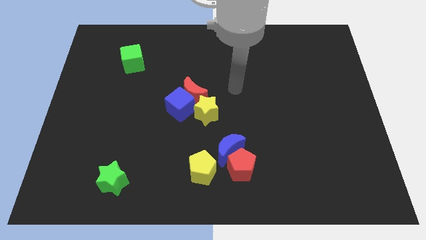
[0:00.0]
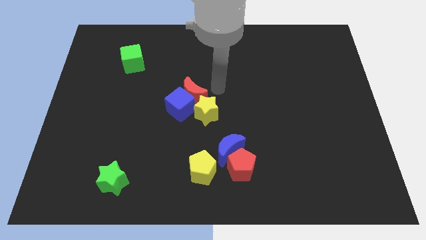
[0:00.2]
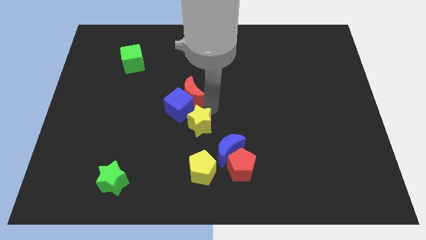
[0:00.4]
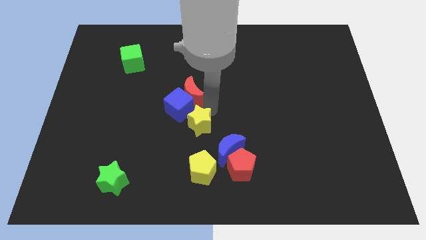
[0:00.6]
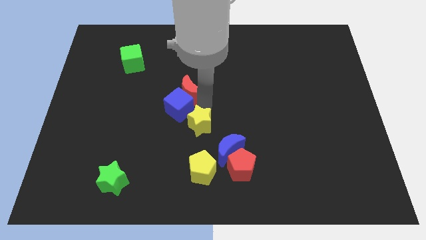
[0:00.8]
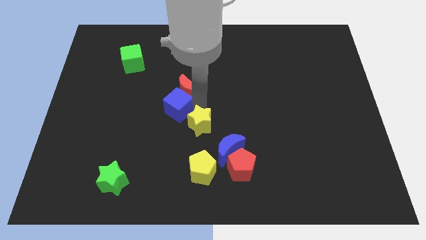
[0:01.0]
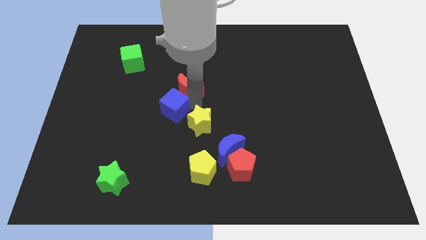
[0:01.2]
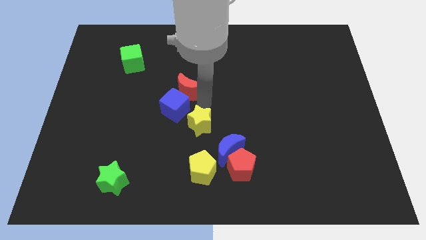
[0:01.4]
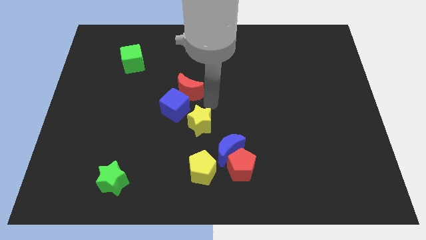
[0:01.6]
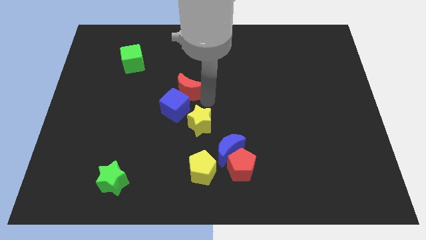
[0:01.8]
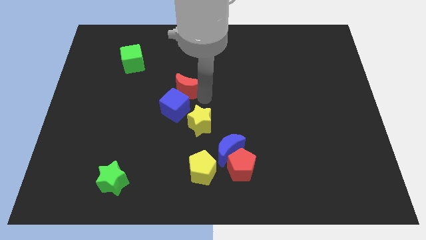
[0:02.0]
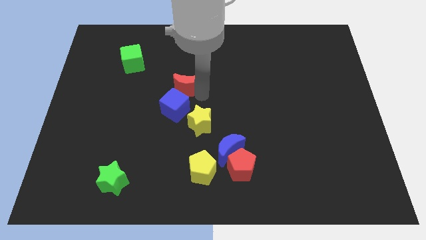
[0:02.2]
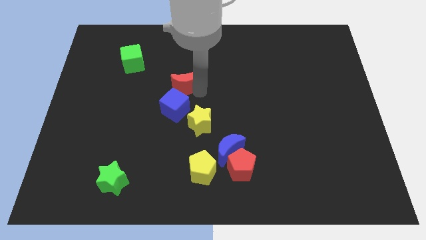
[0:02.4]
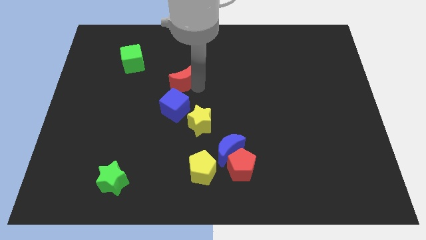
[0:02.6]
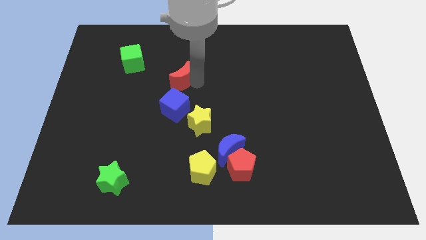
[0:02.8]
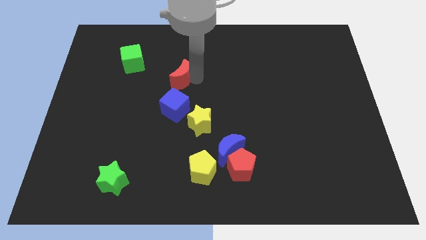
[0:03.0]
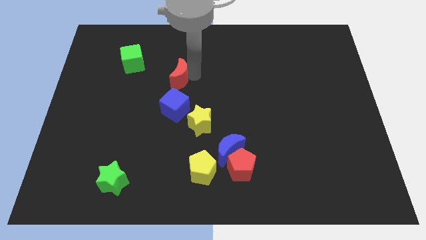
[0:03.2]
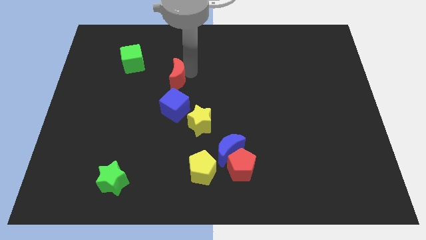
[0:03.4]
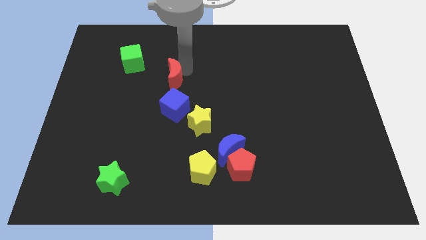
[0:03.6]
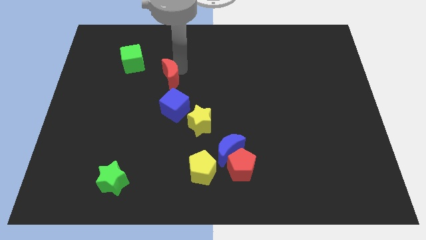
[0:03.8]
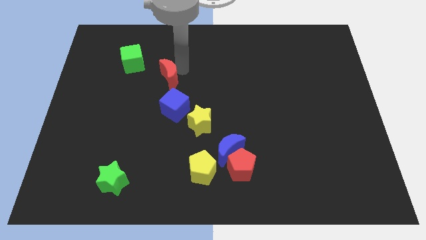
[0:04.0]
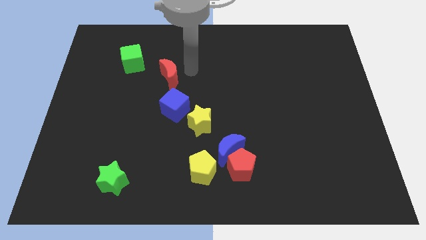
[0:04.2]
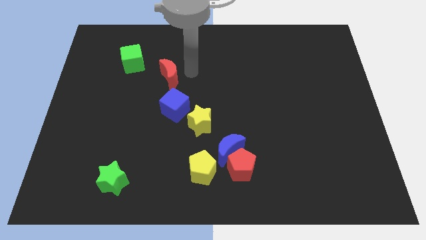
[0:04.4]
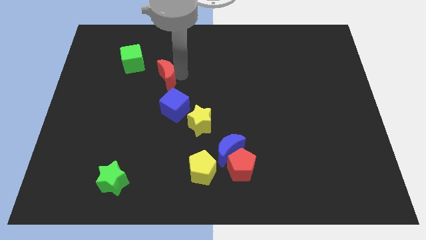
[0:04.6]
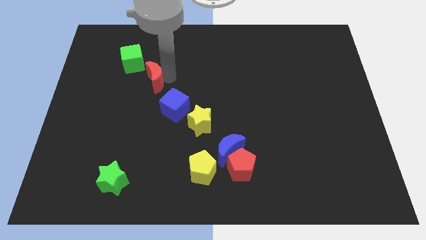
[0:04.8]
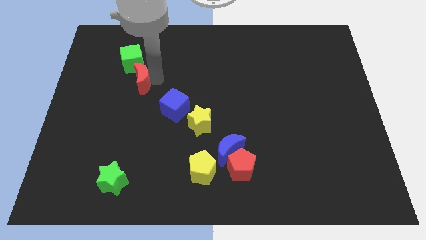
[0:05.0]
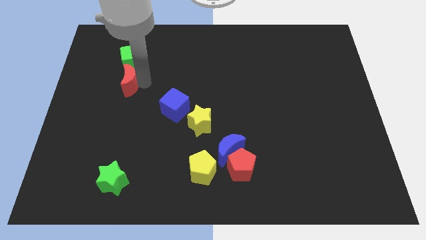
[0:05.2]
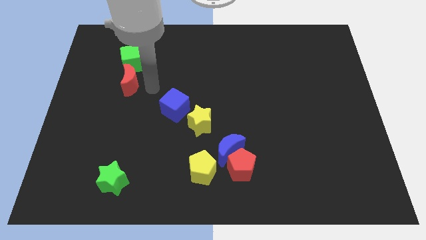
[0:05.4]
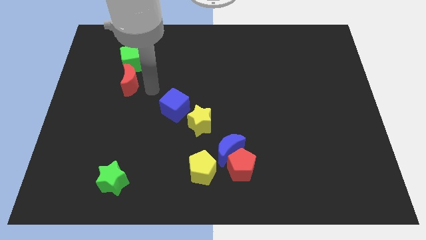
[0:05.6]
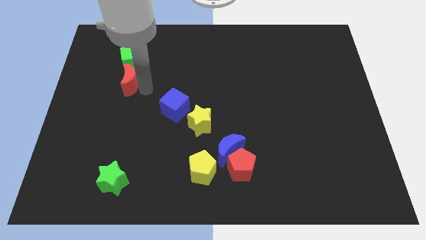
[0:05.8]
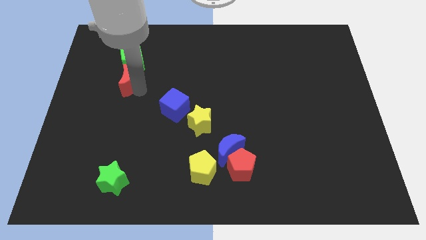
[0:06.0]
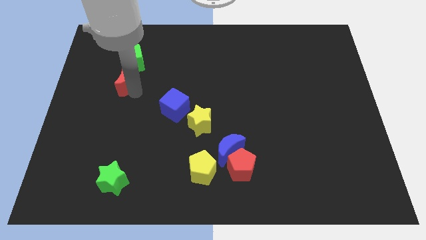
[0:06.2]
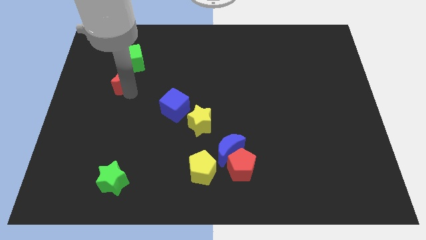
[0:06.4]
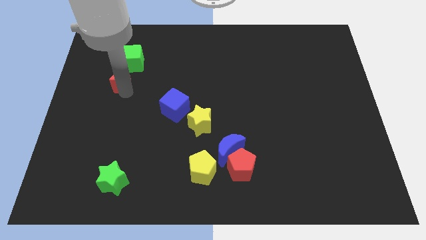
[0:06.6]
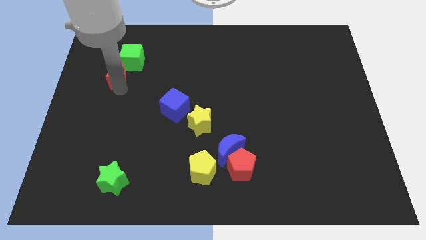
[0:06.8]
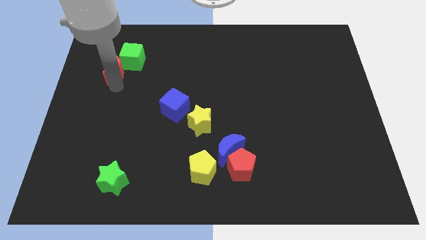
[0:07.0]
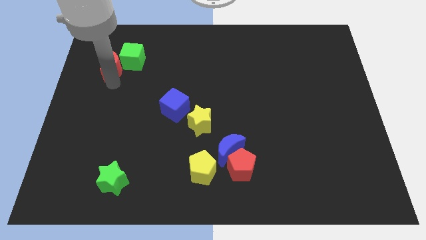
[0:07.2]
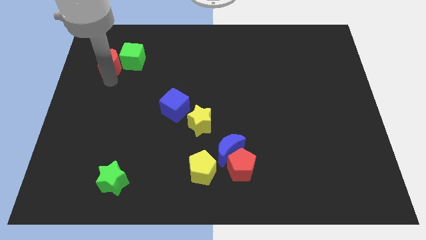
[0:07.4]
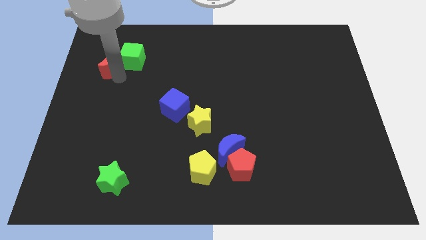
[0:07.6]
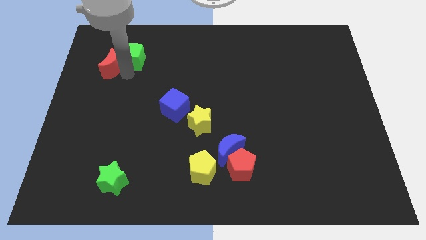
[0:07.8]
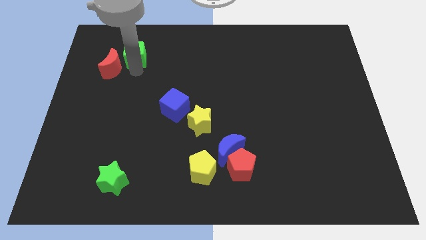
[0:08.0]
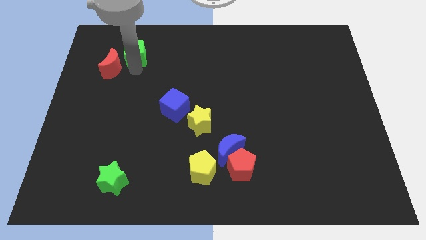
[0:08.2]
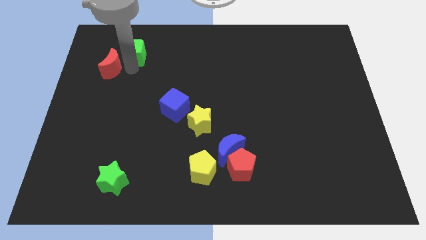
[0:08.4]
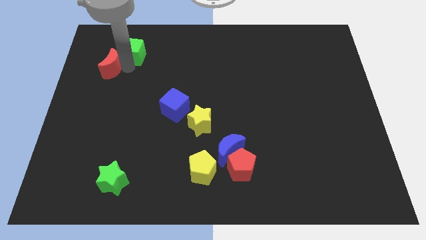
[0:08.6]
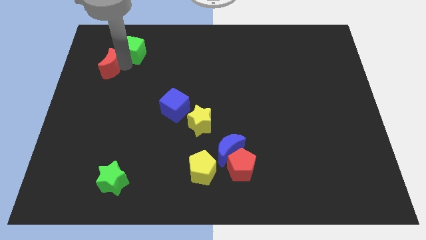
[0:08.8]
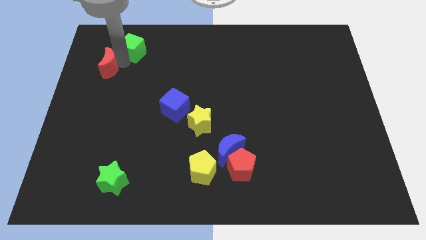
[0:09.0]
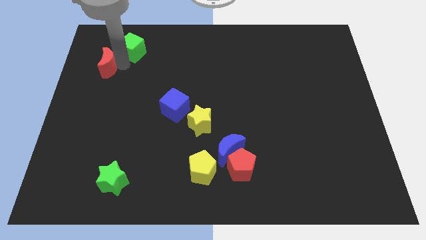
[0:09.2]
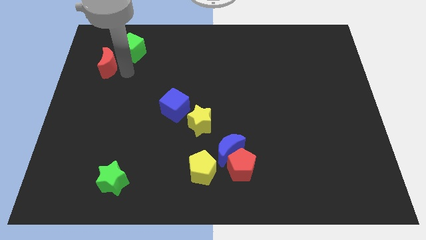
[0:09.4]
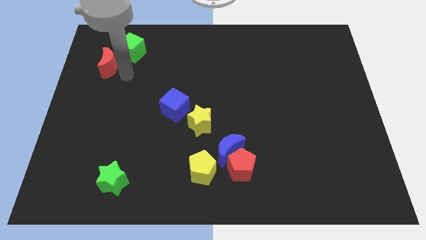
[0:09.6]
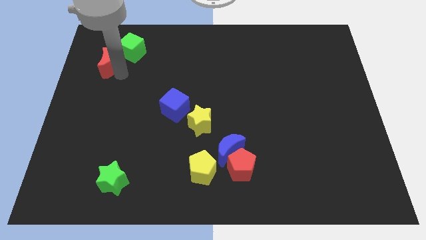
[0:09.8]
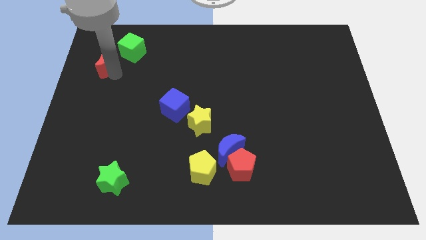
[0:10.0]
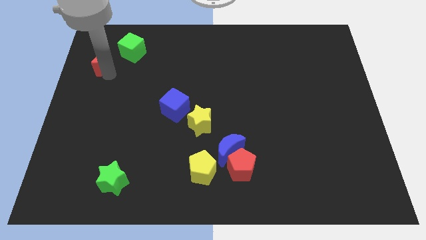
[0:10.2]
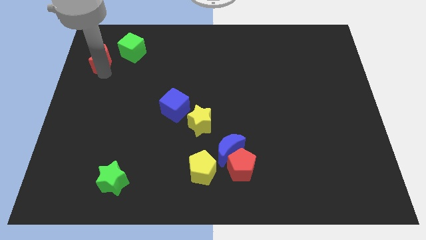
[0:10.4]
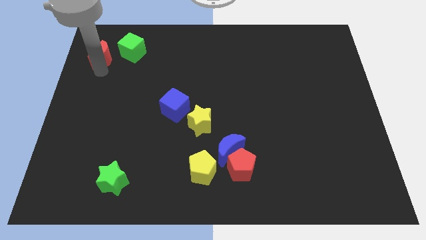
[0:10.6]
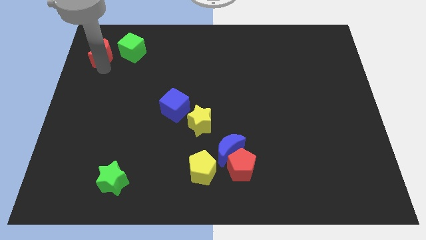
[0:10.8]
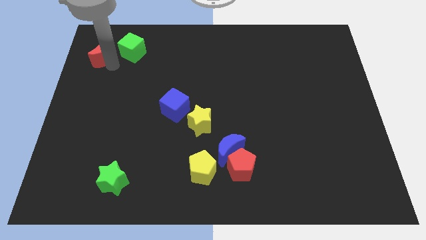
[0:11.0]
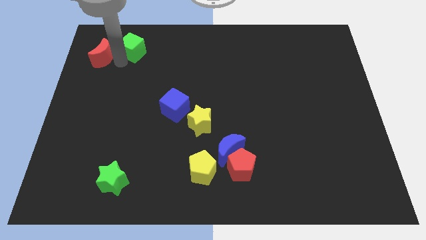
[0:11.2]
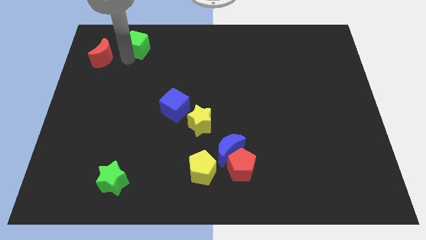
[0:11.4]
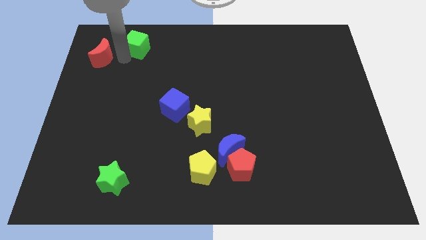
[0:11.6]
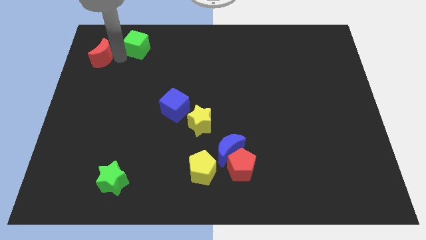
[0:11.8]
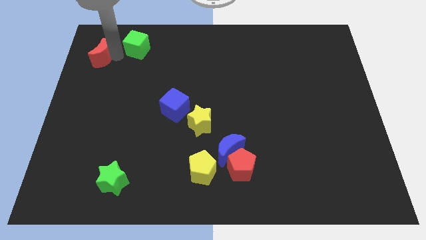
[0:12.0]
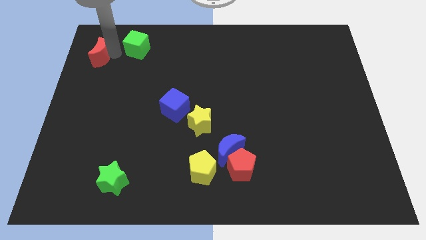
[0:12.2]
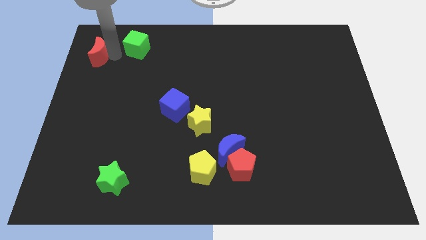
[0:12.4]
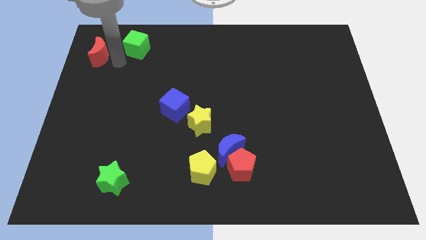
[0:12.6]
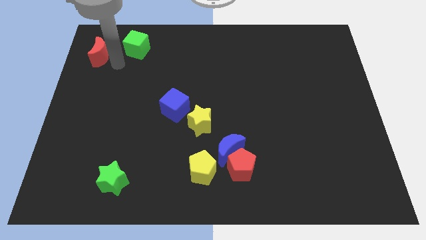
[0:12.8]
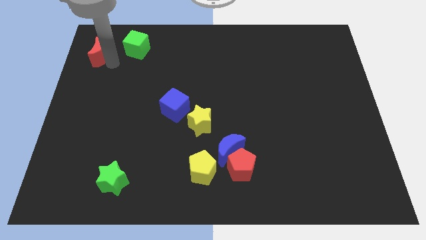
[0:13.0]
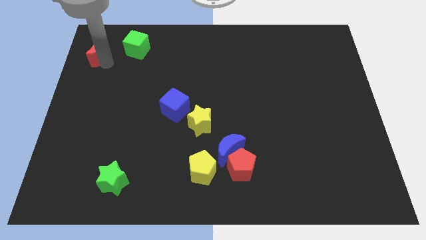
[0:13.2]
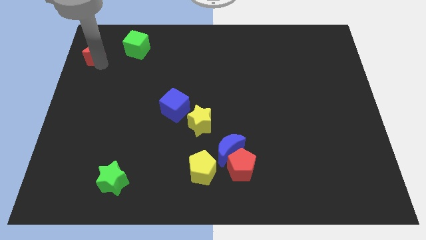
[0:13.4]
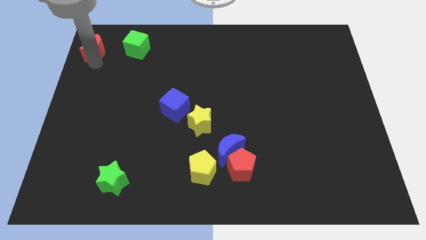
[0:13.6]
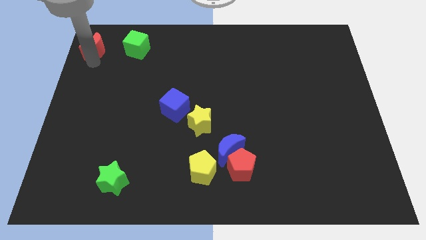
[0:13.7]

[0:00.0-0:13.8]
push the red moon to the top left of the board

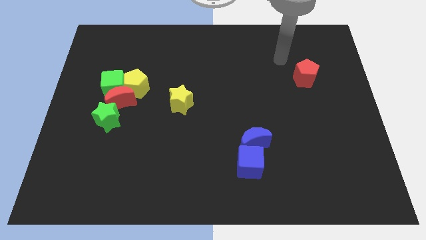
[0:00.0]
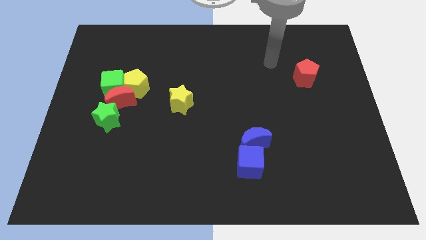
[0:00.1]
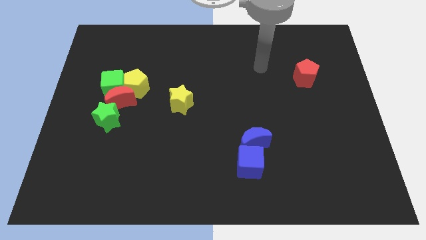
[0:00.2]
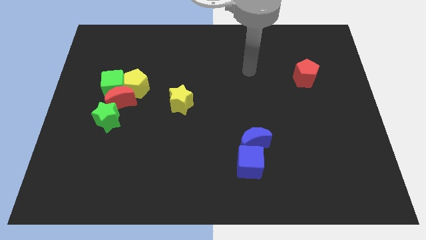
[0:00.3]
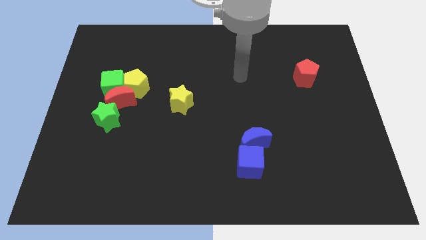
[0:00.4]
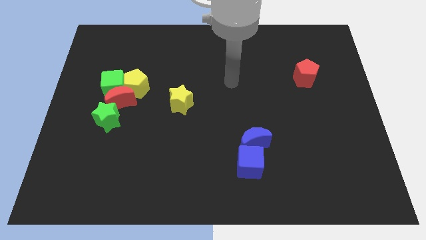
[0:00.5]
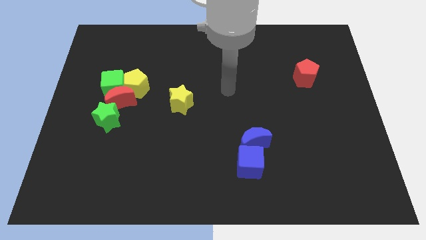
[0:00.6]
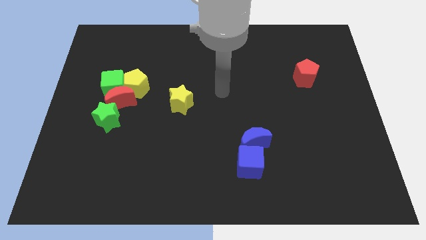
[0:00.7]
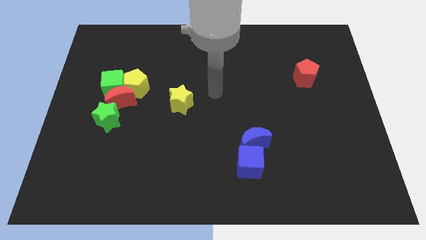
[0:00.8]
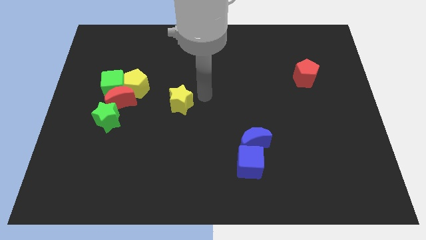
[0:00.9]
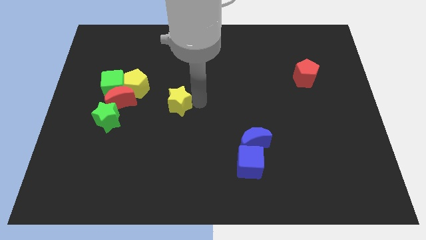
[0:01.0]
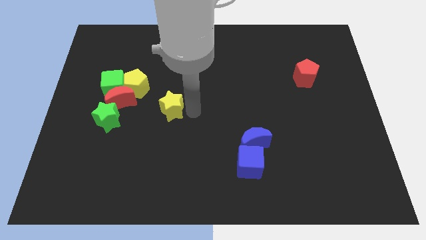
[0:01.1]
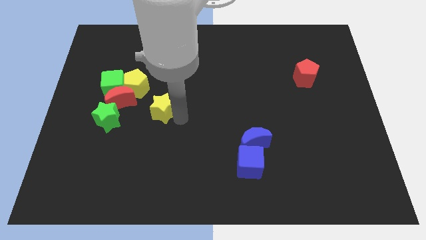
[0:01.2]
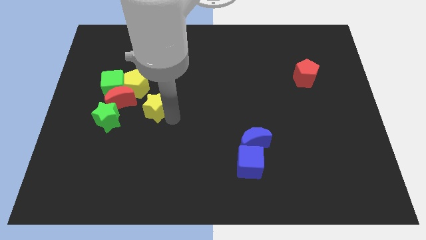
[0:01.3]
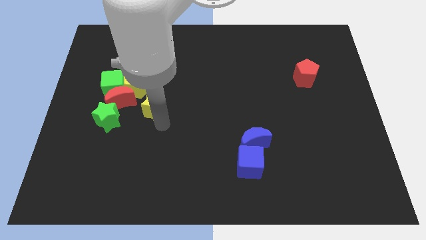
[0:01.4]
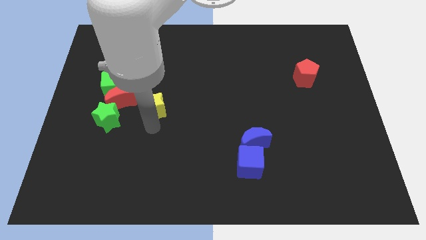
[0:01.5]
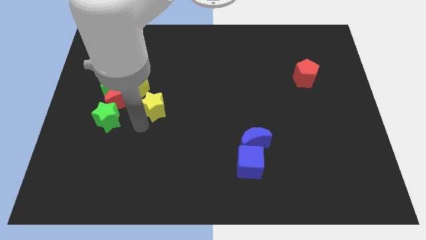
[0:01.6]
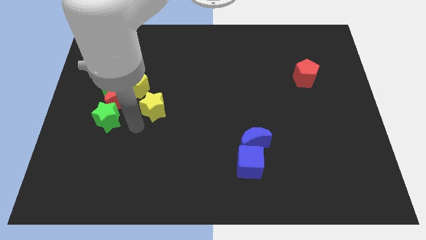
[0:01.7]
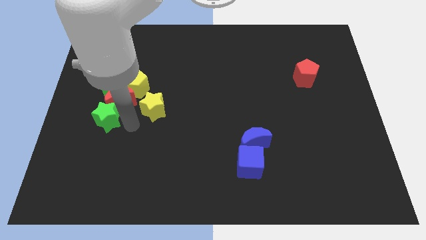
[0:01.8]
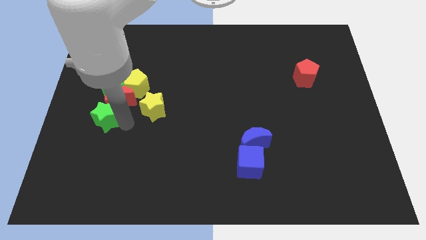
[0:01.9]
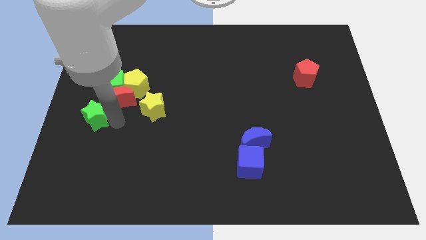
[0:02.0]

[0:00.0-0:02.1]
put the green star to the left side of the board
